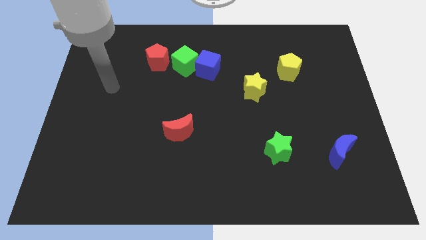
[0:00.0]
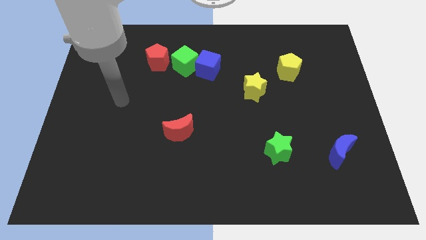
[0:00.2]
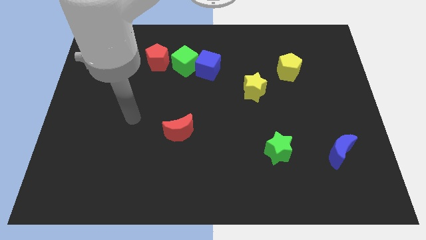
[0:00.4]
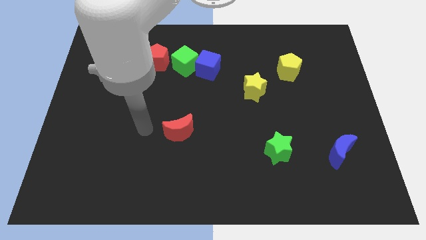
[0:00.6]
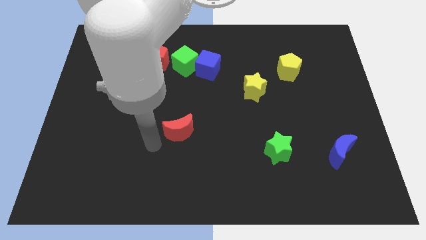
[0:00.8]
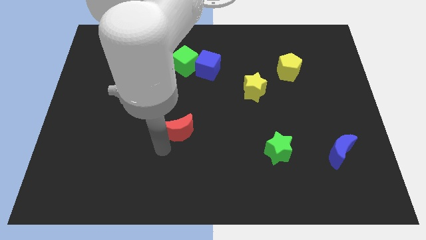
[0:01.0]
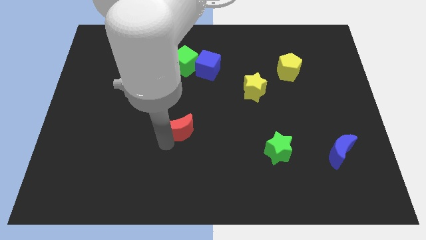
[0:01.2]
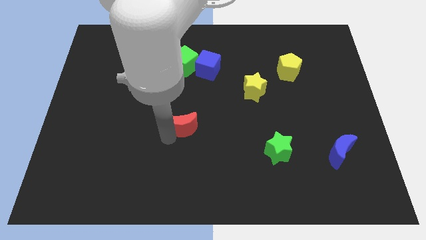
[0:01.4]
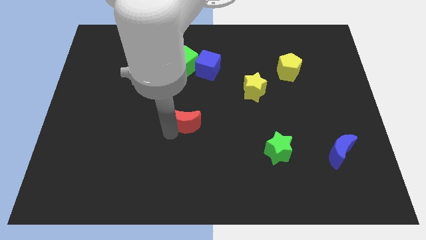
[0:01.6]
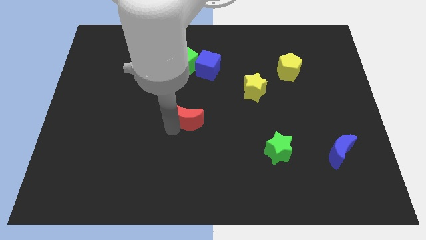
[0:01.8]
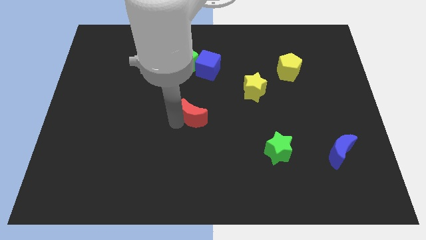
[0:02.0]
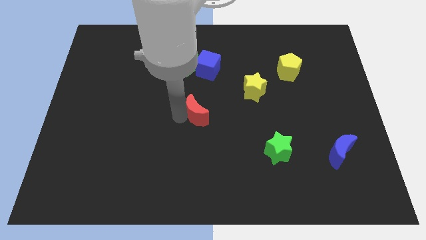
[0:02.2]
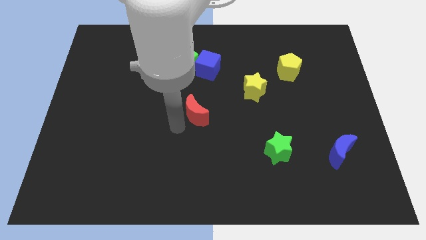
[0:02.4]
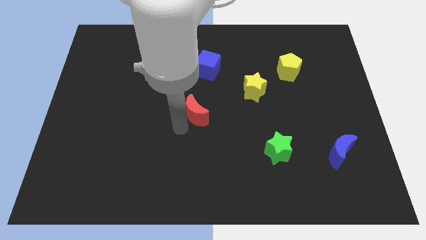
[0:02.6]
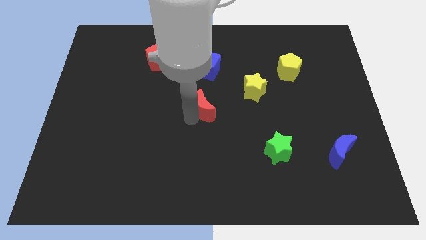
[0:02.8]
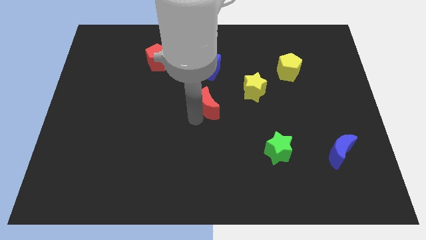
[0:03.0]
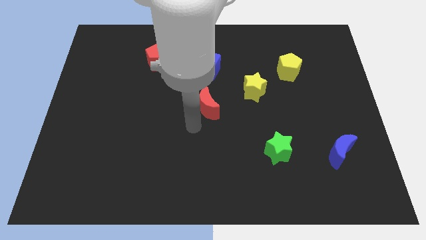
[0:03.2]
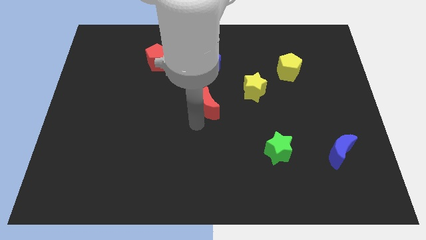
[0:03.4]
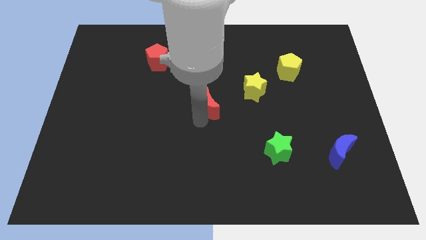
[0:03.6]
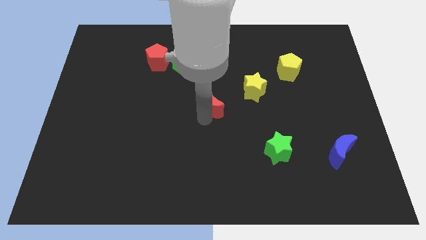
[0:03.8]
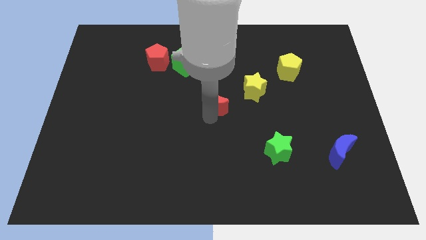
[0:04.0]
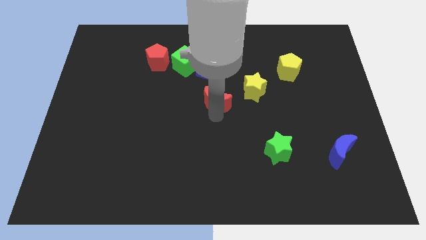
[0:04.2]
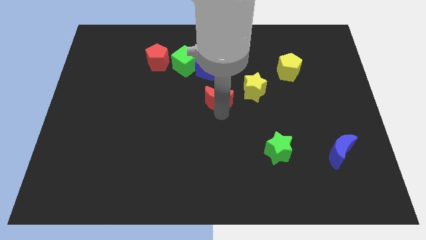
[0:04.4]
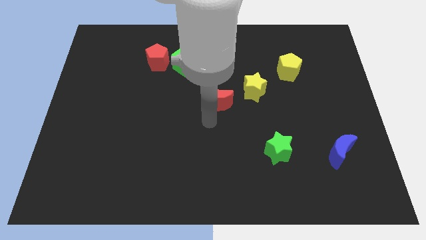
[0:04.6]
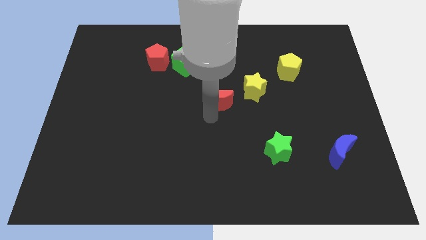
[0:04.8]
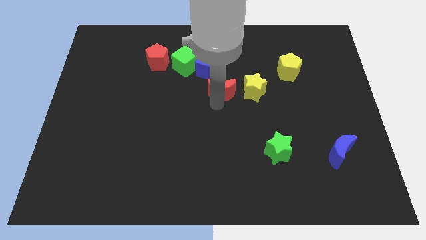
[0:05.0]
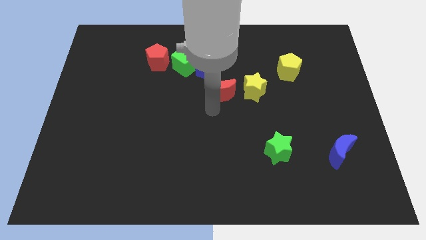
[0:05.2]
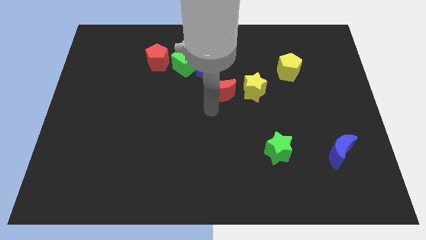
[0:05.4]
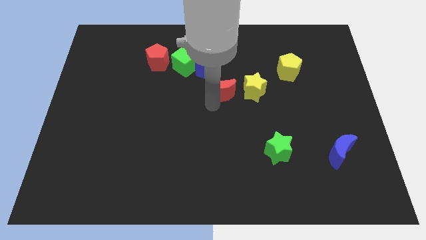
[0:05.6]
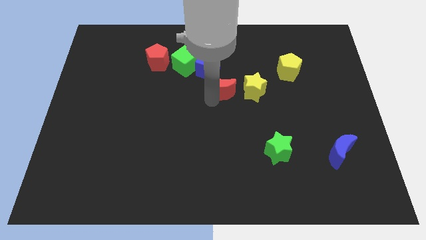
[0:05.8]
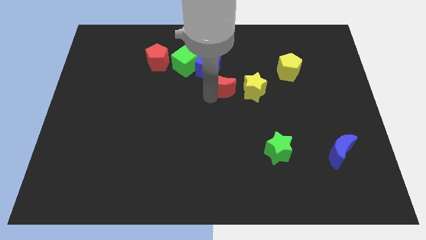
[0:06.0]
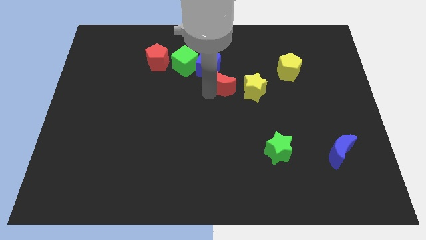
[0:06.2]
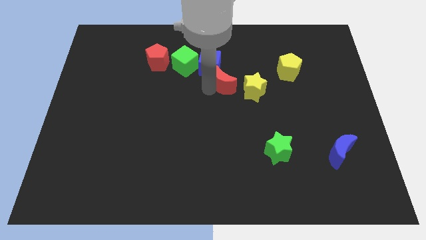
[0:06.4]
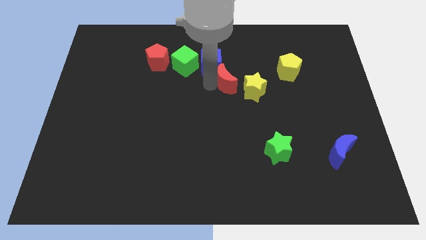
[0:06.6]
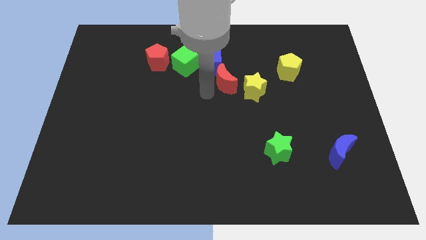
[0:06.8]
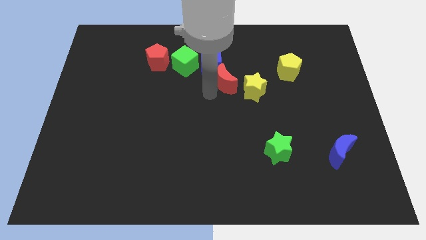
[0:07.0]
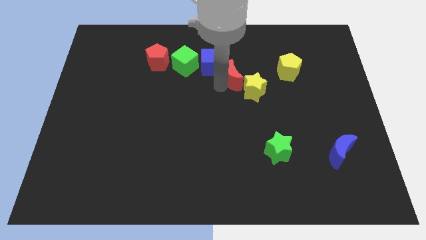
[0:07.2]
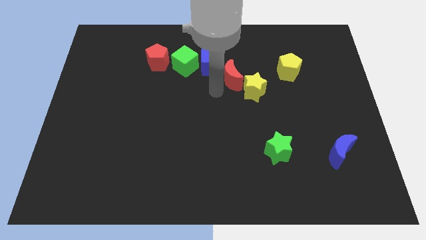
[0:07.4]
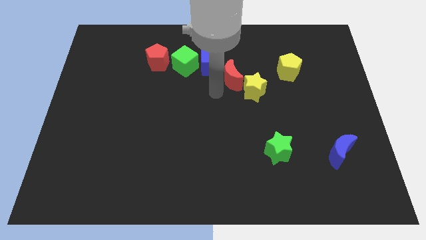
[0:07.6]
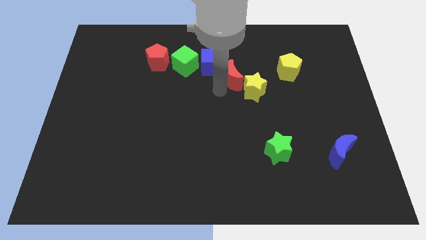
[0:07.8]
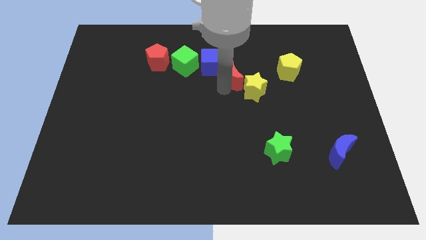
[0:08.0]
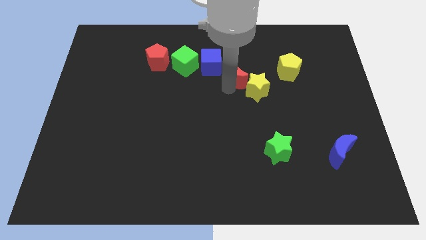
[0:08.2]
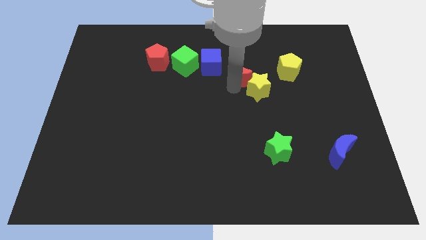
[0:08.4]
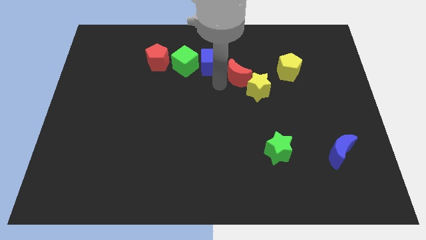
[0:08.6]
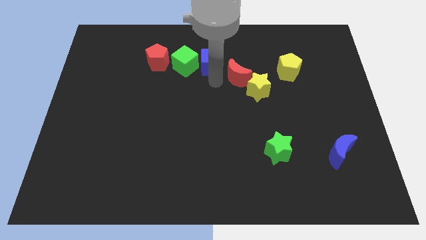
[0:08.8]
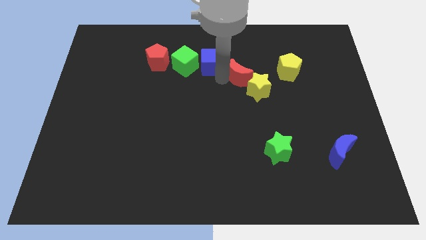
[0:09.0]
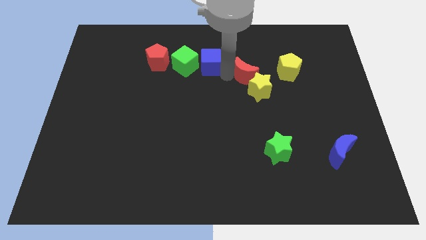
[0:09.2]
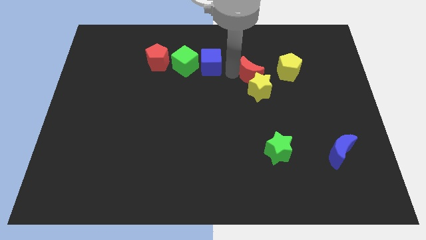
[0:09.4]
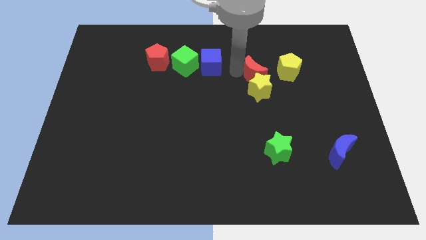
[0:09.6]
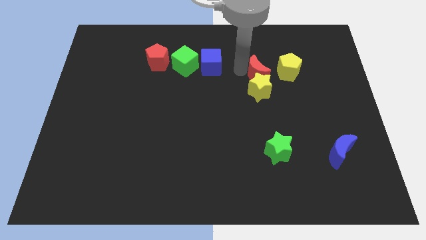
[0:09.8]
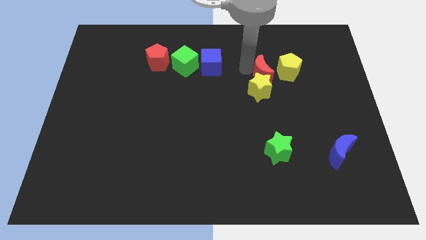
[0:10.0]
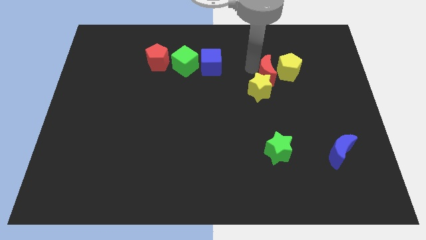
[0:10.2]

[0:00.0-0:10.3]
slide the red moon to the yellow pentagon

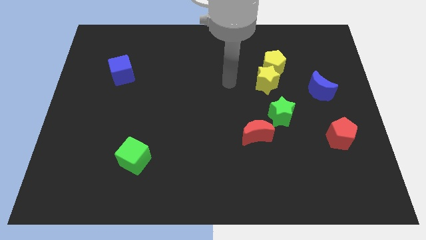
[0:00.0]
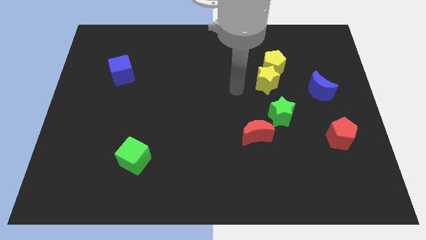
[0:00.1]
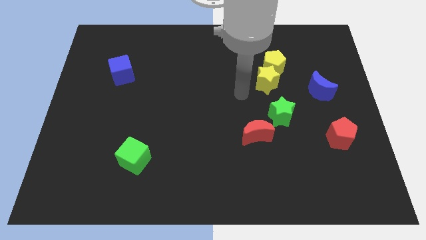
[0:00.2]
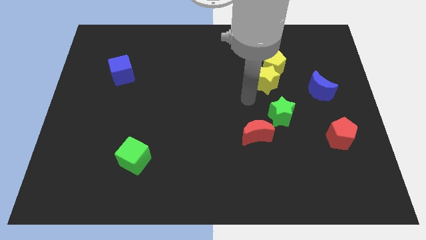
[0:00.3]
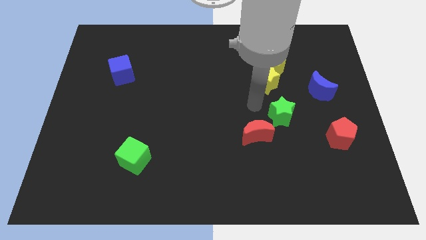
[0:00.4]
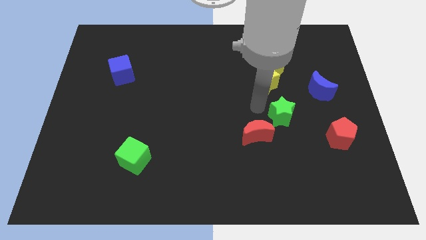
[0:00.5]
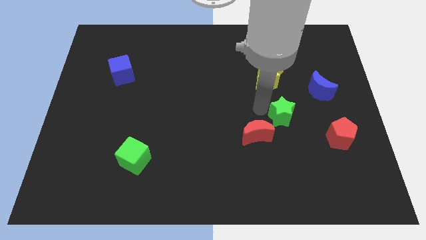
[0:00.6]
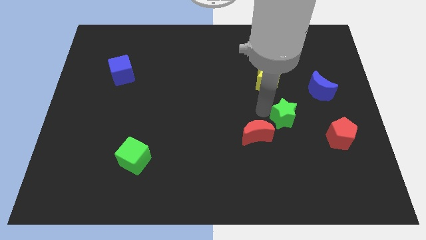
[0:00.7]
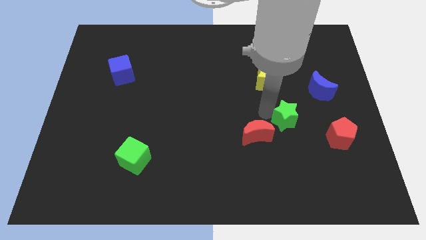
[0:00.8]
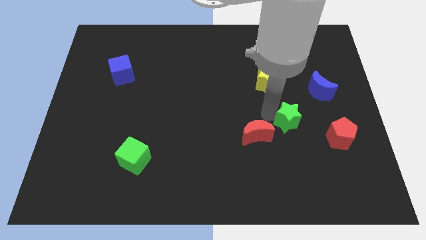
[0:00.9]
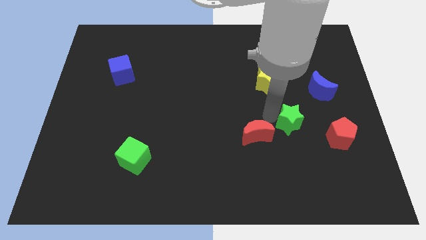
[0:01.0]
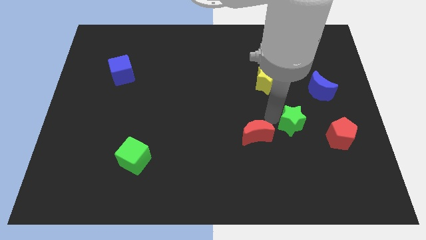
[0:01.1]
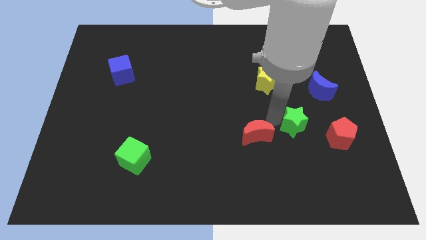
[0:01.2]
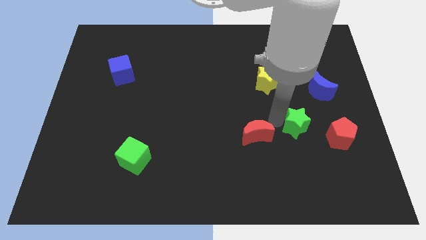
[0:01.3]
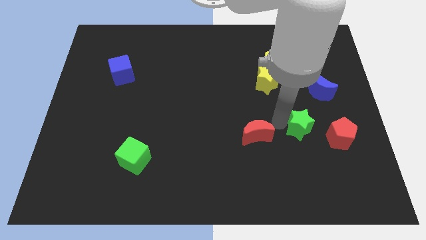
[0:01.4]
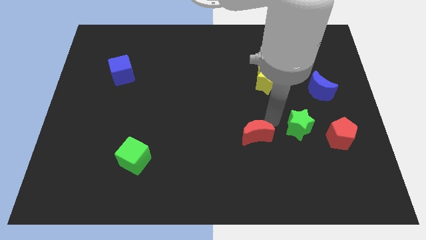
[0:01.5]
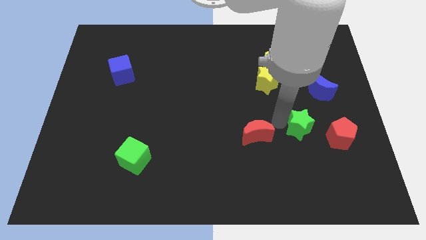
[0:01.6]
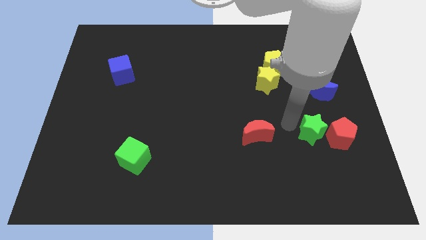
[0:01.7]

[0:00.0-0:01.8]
slide the green star towards the red pentagon
